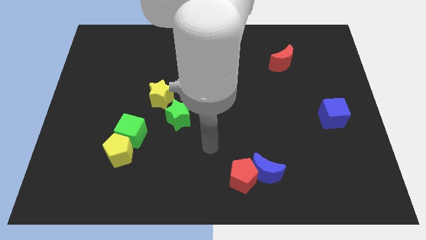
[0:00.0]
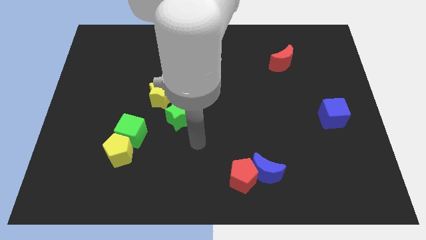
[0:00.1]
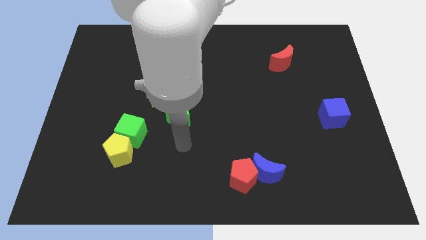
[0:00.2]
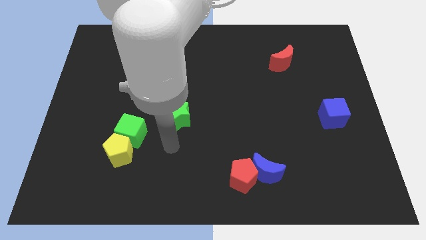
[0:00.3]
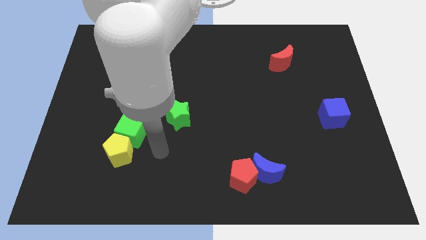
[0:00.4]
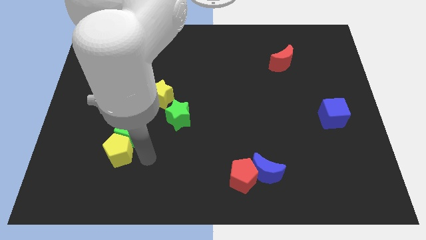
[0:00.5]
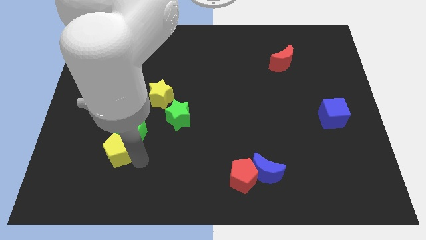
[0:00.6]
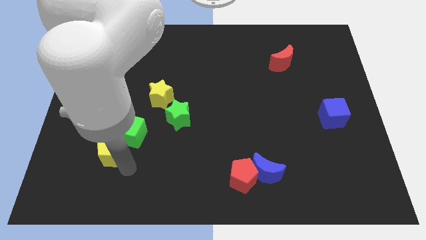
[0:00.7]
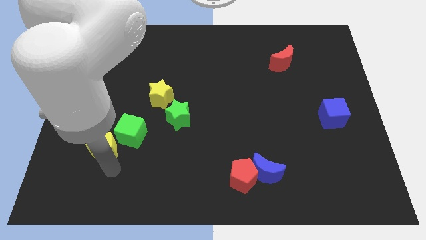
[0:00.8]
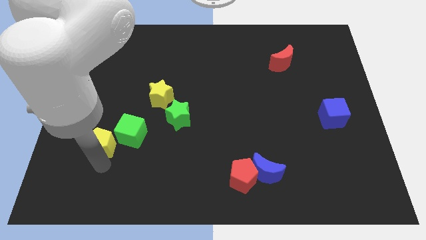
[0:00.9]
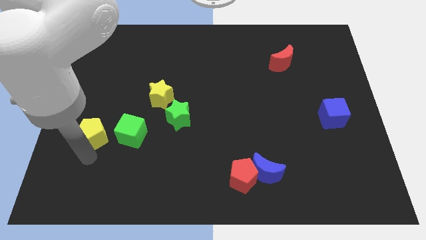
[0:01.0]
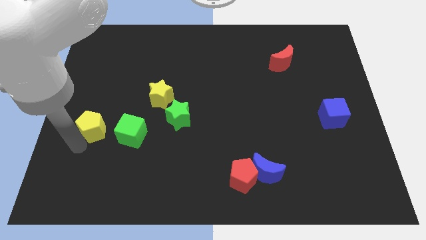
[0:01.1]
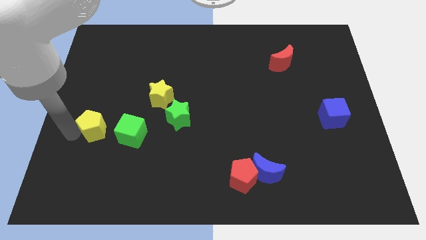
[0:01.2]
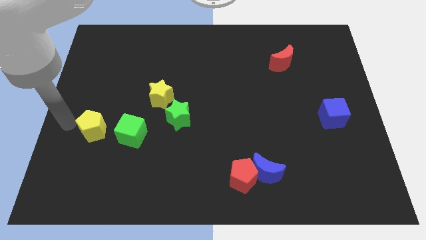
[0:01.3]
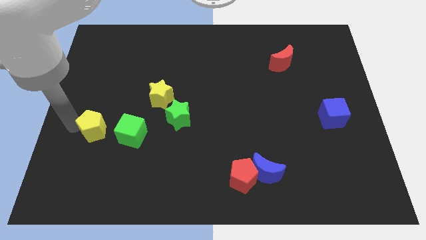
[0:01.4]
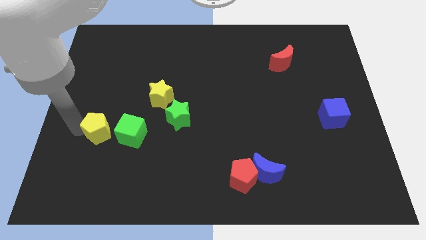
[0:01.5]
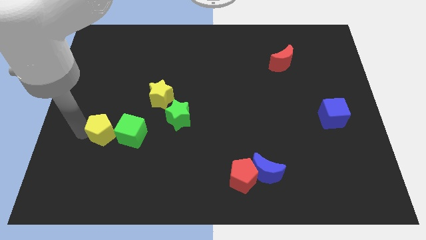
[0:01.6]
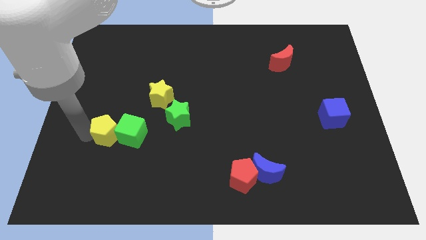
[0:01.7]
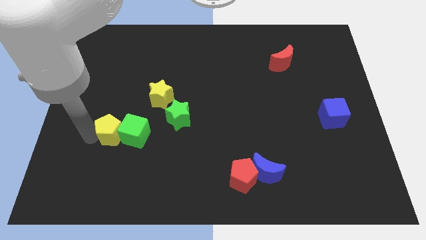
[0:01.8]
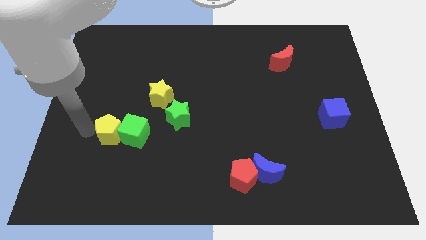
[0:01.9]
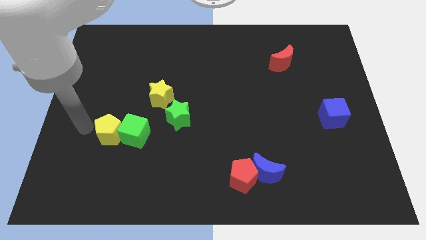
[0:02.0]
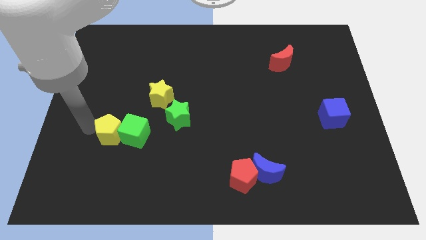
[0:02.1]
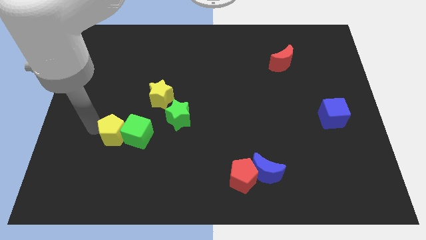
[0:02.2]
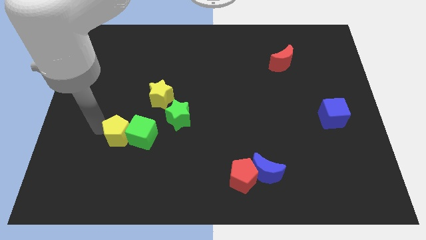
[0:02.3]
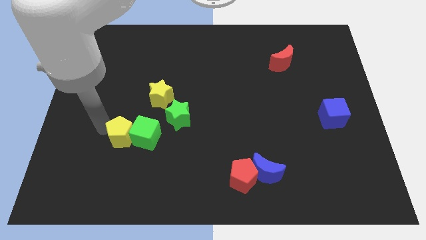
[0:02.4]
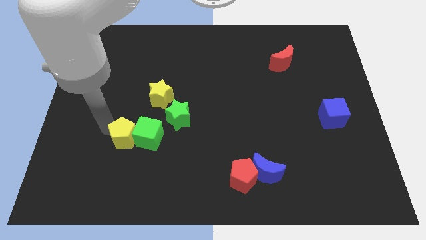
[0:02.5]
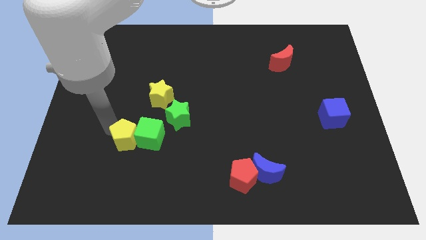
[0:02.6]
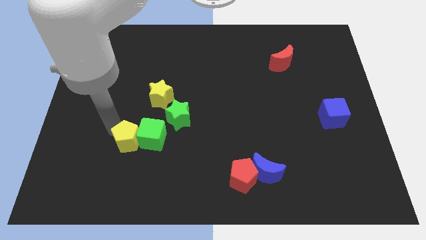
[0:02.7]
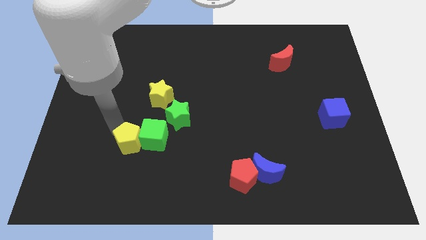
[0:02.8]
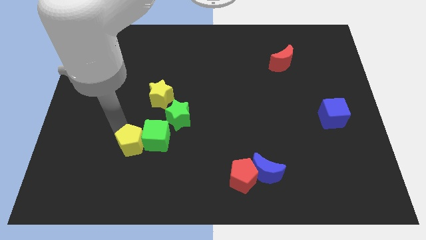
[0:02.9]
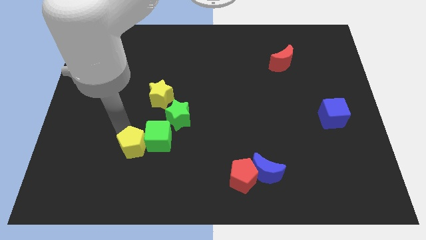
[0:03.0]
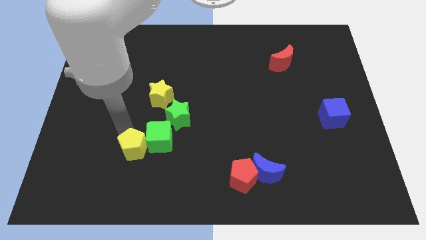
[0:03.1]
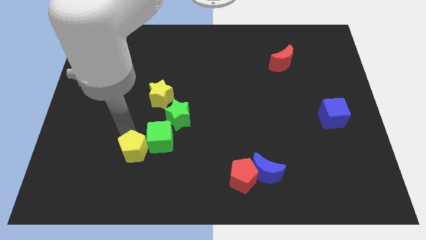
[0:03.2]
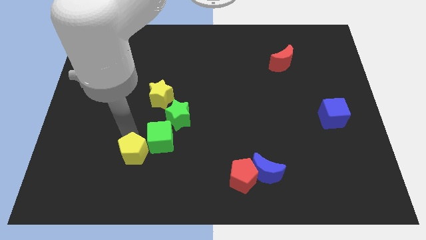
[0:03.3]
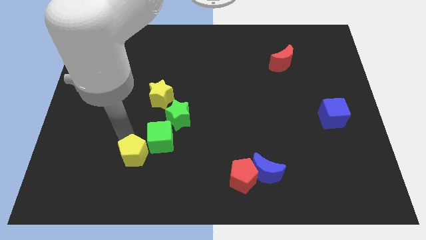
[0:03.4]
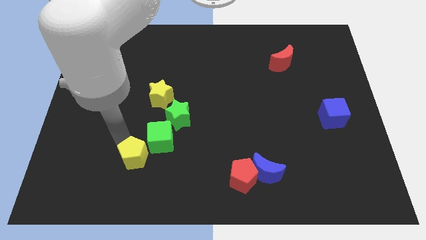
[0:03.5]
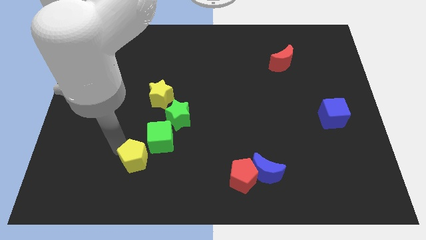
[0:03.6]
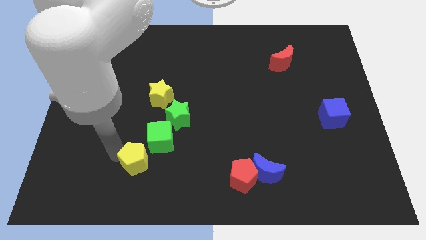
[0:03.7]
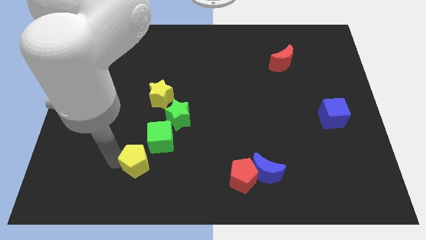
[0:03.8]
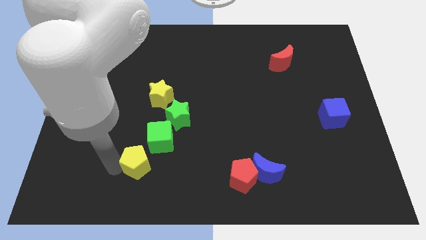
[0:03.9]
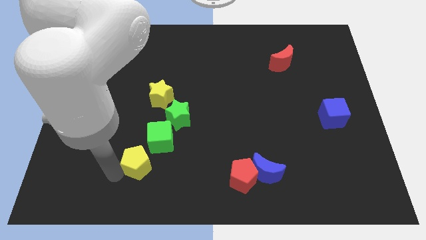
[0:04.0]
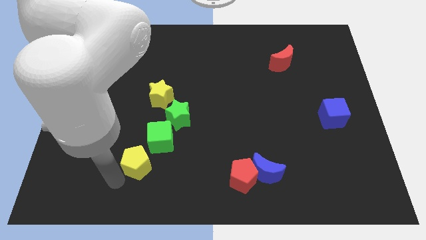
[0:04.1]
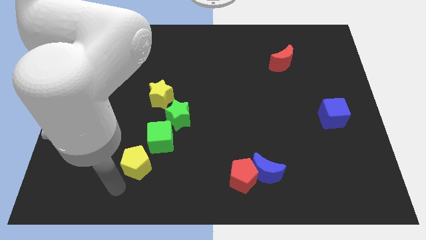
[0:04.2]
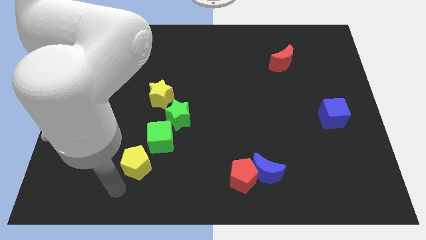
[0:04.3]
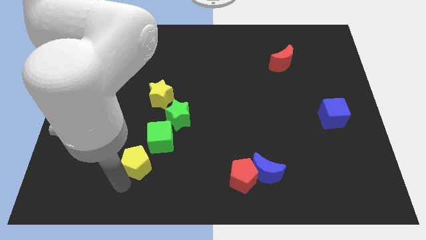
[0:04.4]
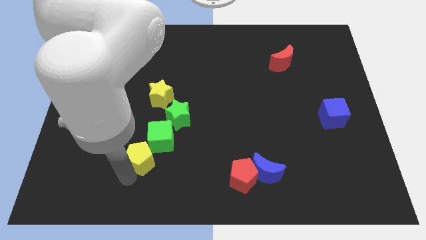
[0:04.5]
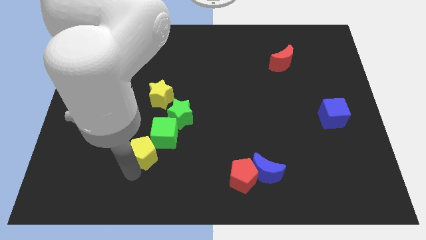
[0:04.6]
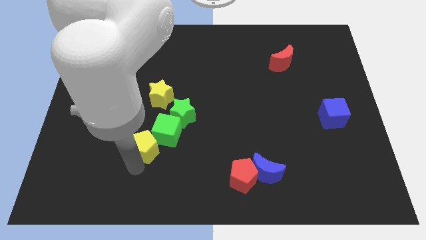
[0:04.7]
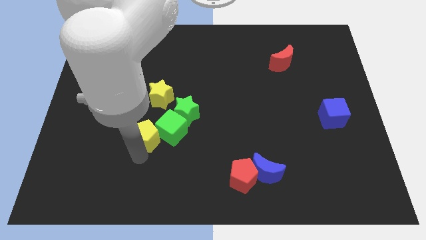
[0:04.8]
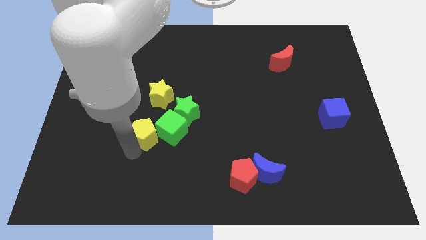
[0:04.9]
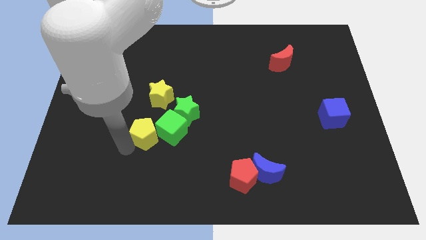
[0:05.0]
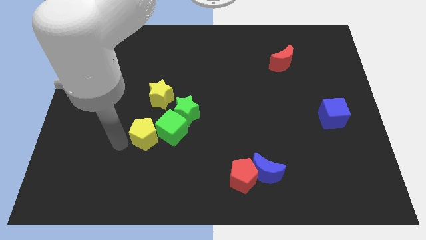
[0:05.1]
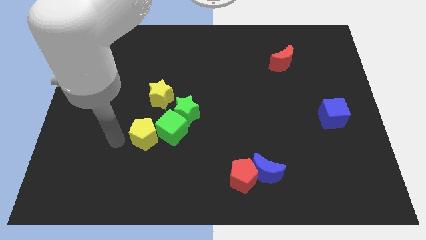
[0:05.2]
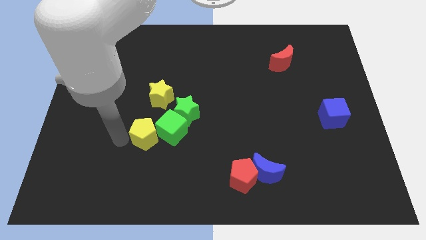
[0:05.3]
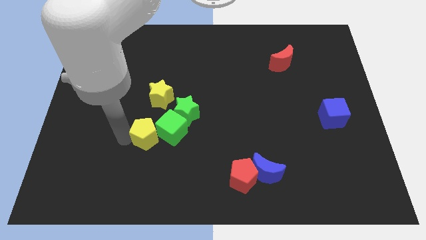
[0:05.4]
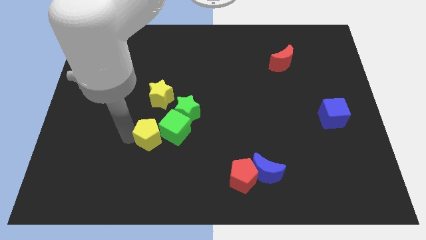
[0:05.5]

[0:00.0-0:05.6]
slightly move the yellow pentagon up and then right

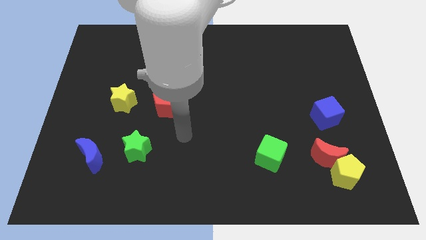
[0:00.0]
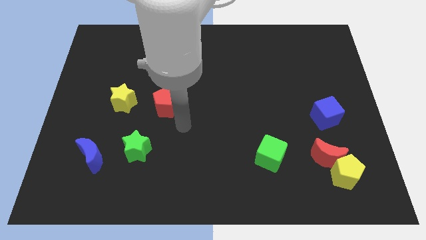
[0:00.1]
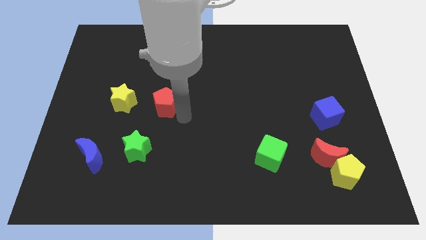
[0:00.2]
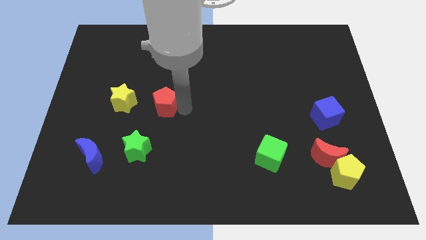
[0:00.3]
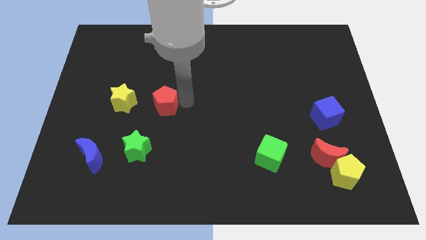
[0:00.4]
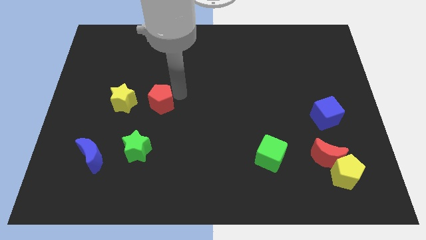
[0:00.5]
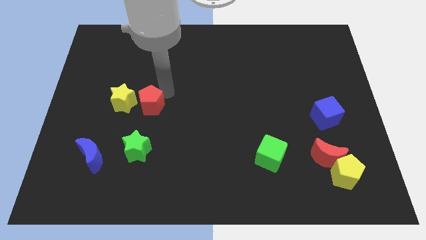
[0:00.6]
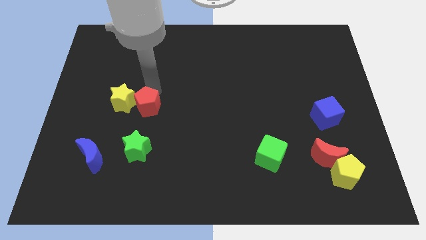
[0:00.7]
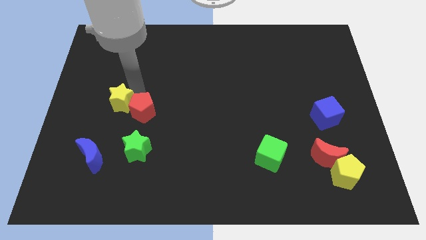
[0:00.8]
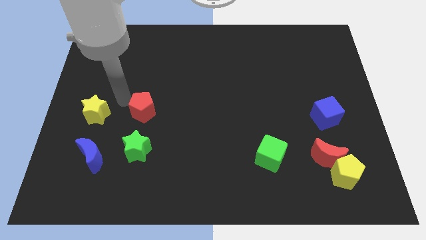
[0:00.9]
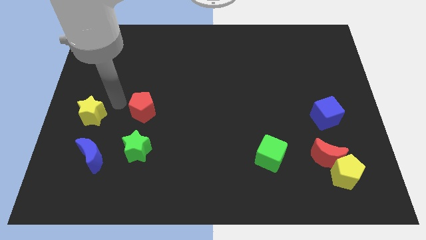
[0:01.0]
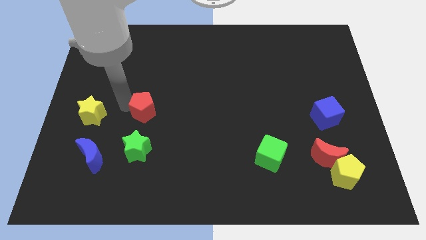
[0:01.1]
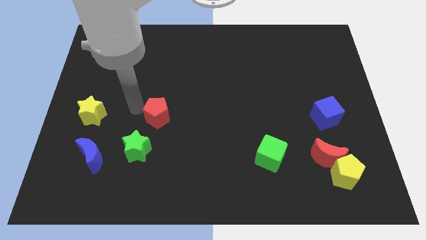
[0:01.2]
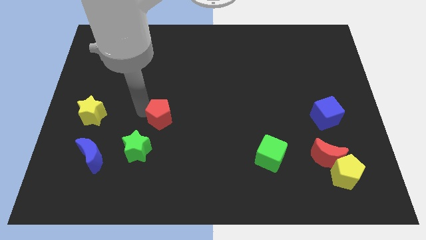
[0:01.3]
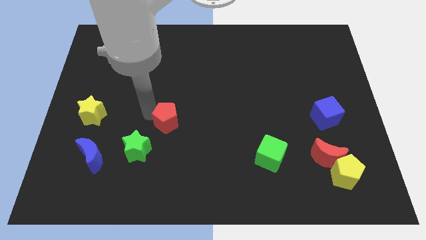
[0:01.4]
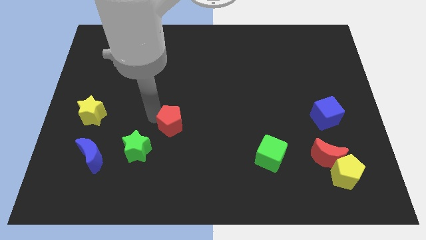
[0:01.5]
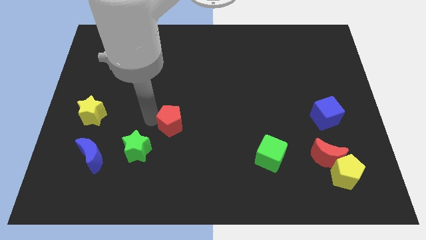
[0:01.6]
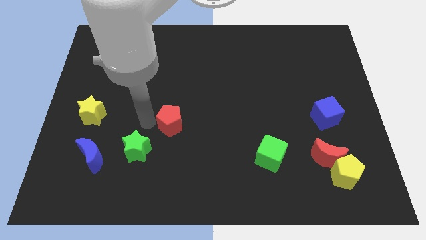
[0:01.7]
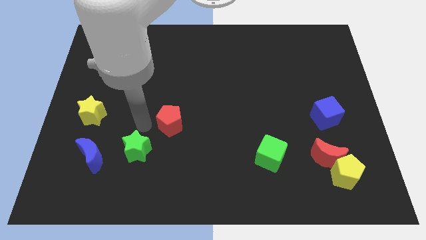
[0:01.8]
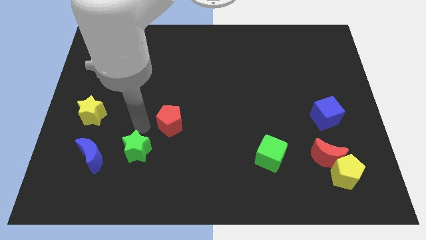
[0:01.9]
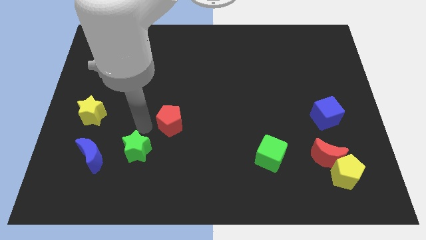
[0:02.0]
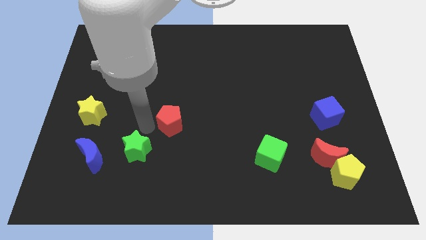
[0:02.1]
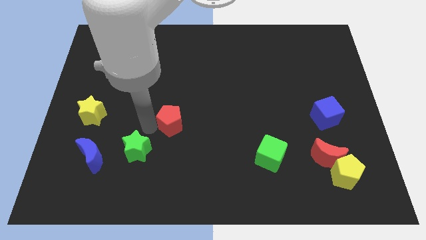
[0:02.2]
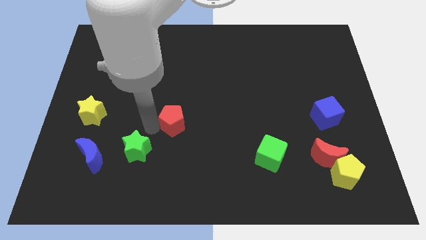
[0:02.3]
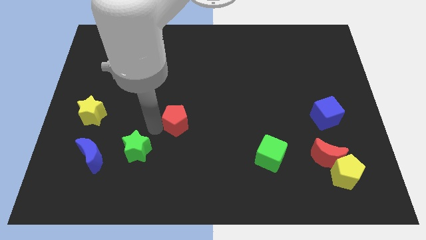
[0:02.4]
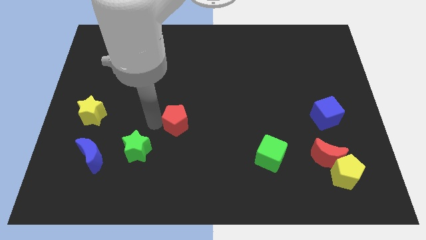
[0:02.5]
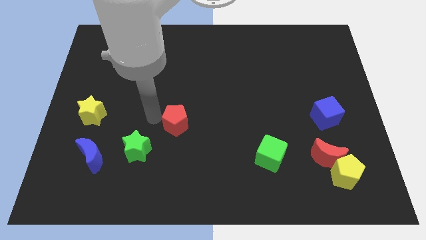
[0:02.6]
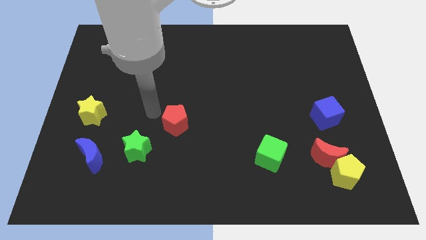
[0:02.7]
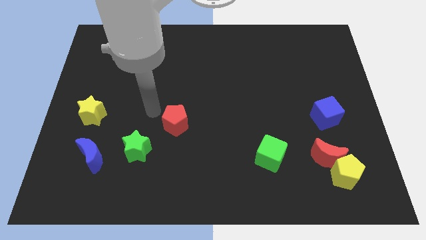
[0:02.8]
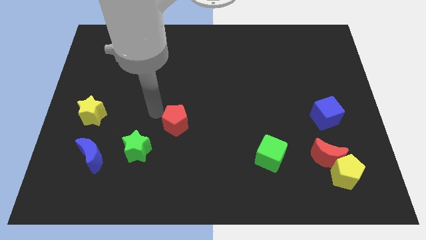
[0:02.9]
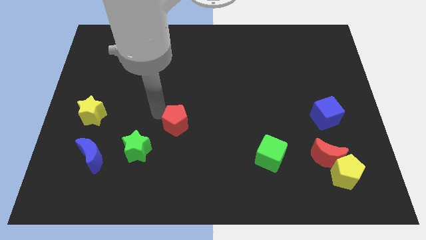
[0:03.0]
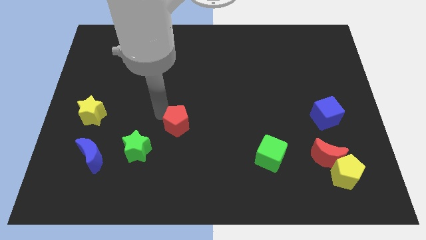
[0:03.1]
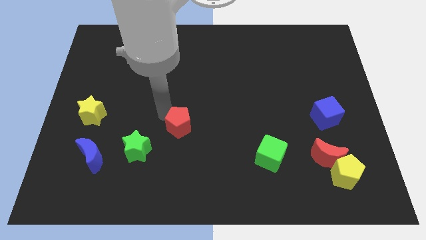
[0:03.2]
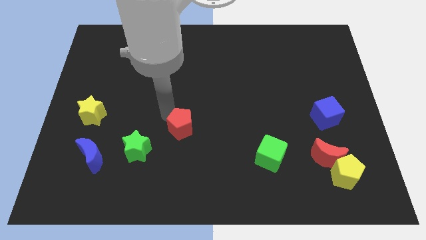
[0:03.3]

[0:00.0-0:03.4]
push the red pentagon a little downwards and then right
